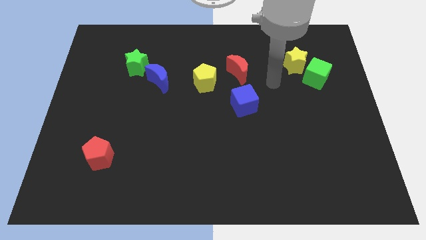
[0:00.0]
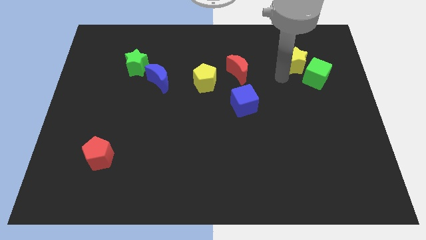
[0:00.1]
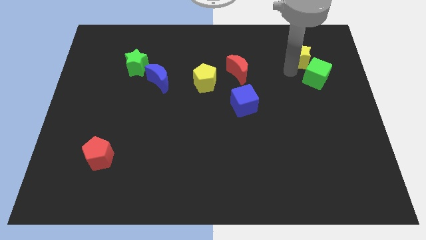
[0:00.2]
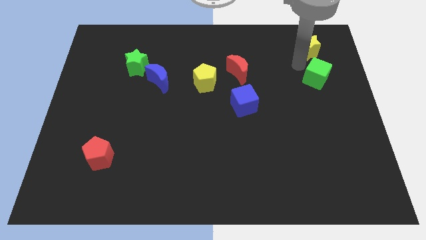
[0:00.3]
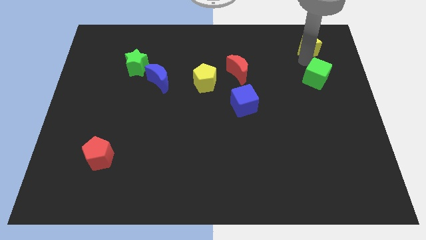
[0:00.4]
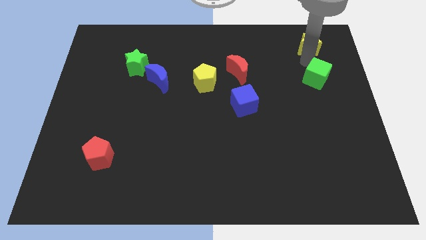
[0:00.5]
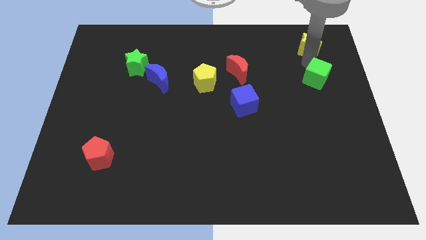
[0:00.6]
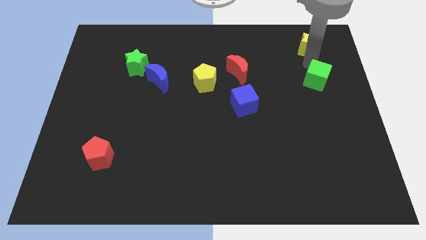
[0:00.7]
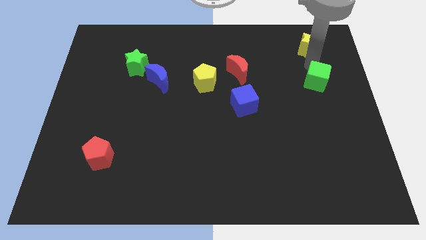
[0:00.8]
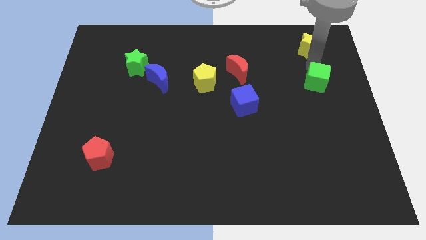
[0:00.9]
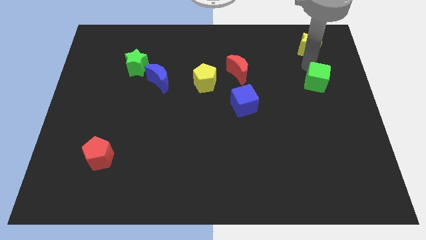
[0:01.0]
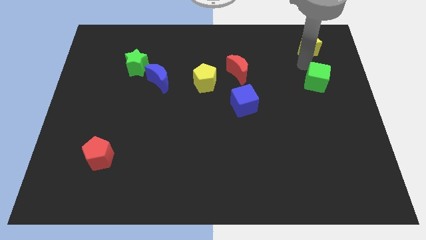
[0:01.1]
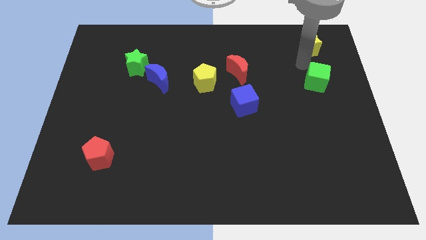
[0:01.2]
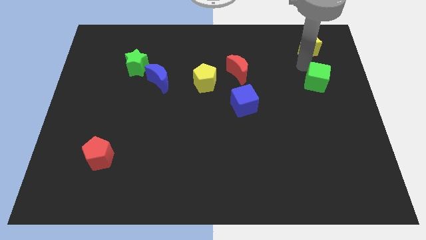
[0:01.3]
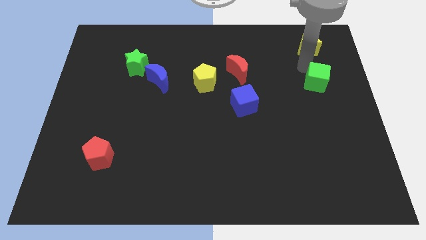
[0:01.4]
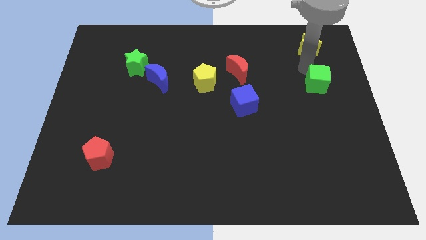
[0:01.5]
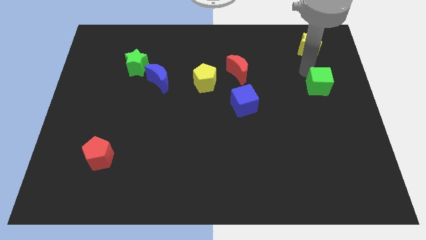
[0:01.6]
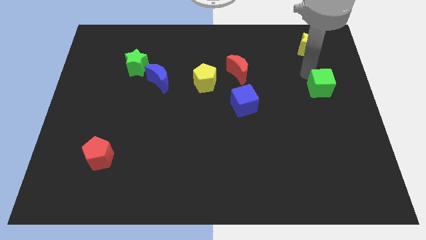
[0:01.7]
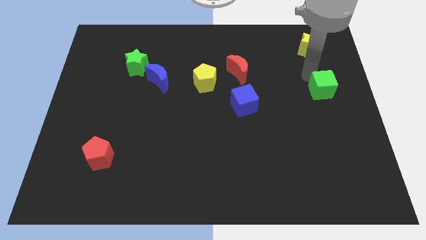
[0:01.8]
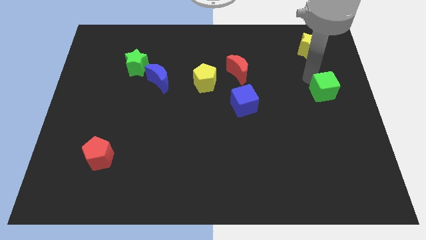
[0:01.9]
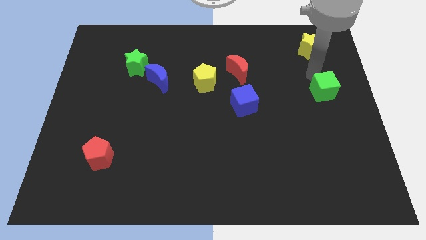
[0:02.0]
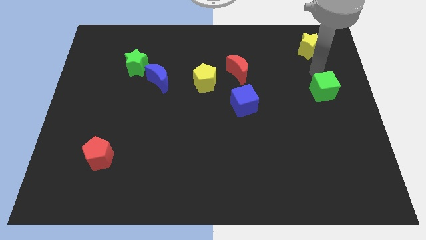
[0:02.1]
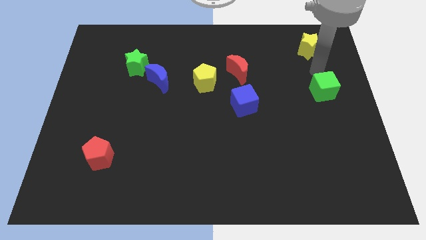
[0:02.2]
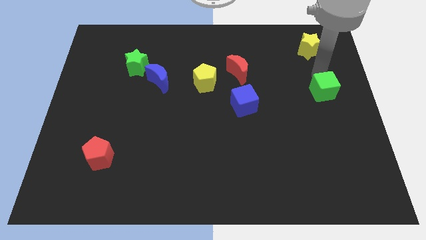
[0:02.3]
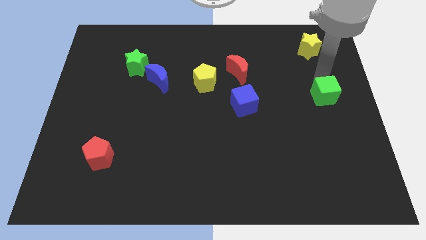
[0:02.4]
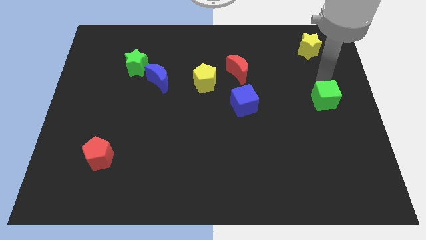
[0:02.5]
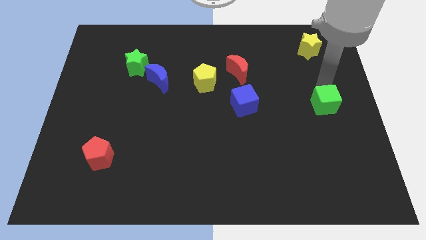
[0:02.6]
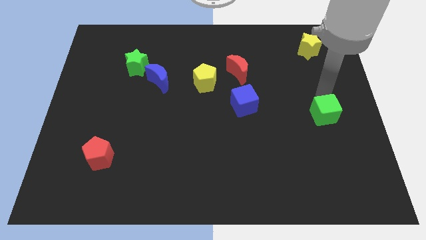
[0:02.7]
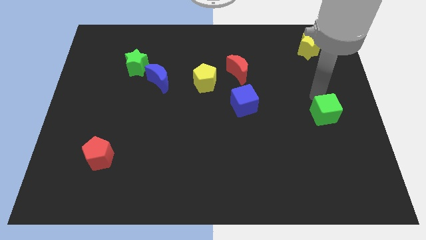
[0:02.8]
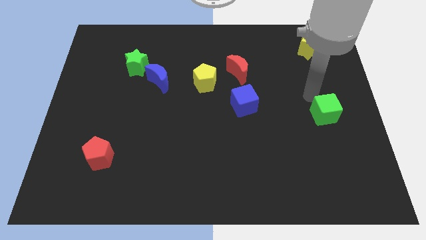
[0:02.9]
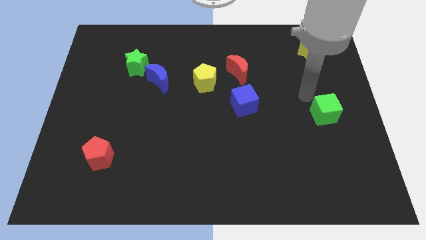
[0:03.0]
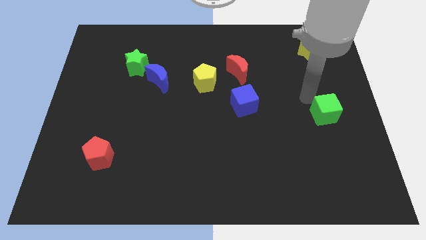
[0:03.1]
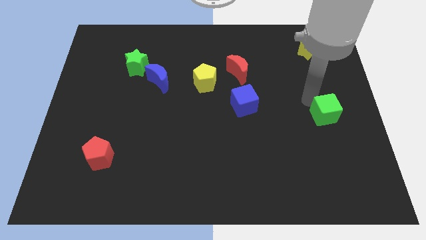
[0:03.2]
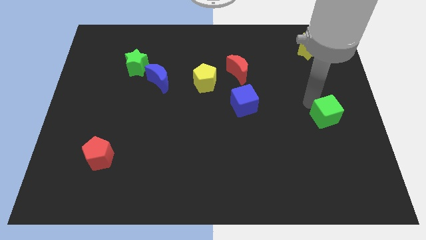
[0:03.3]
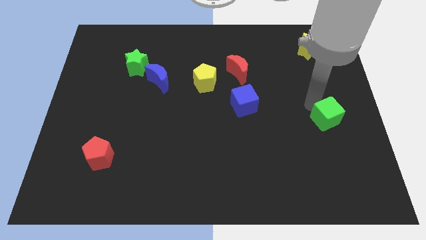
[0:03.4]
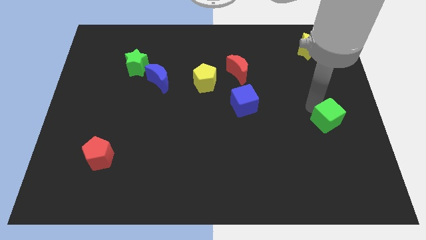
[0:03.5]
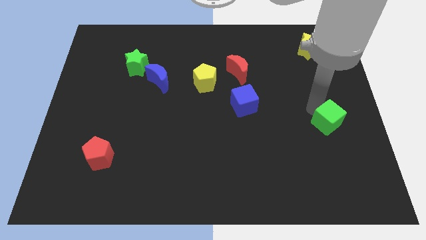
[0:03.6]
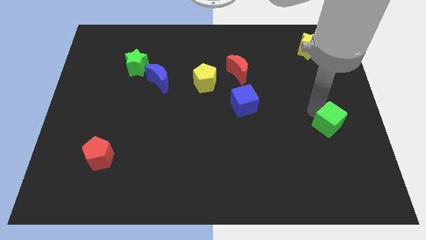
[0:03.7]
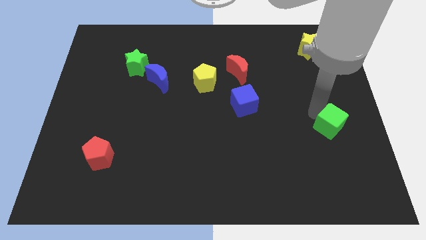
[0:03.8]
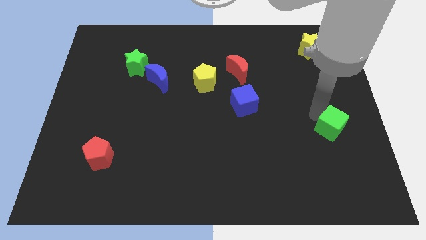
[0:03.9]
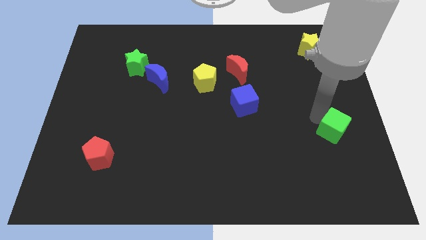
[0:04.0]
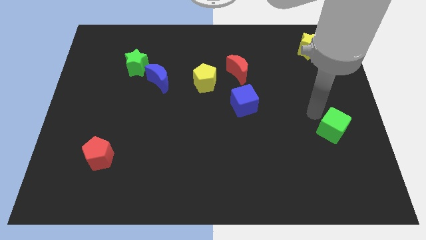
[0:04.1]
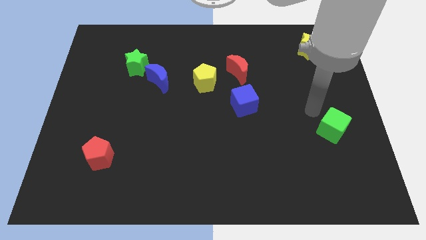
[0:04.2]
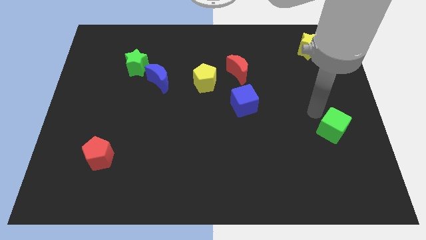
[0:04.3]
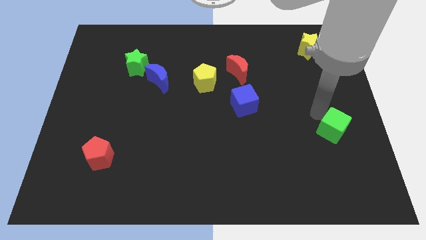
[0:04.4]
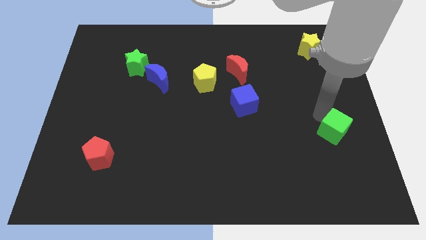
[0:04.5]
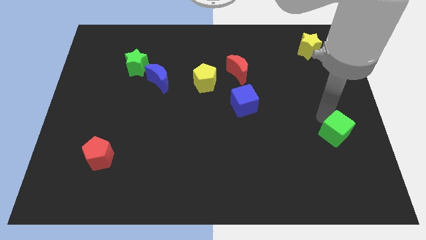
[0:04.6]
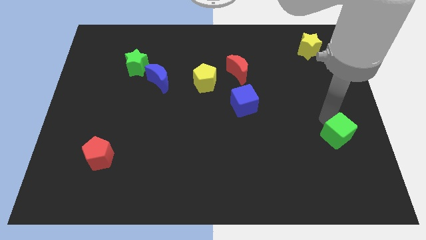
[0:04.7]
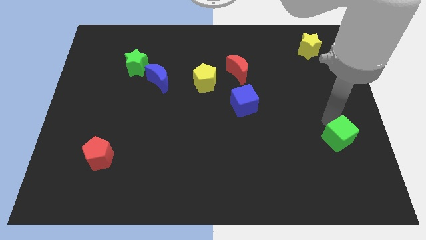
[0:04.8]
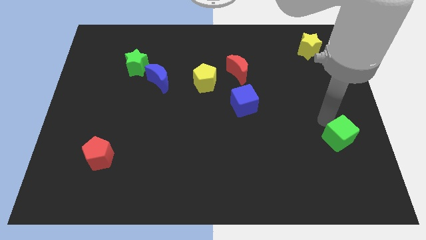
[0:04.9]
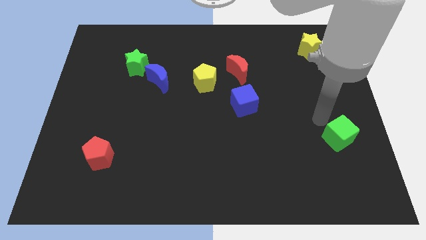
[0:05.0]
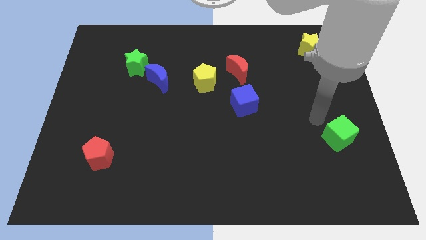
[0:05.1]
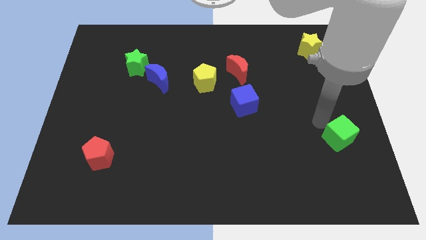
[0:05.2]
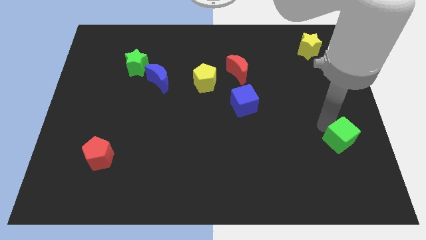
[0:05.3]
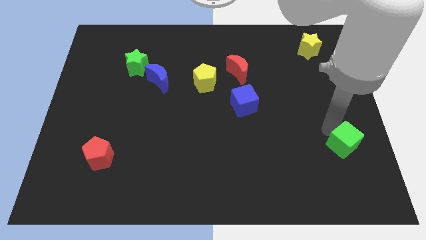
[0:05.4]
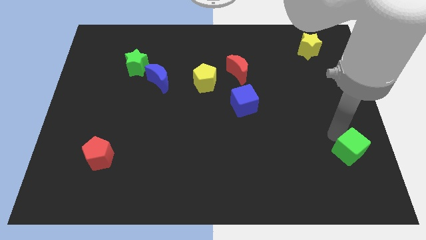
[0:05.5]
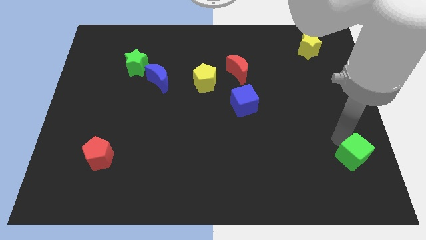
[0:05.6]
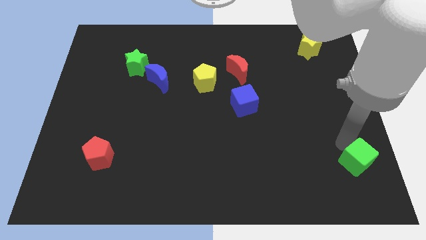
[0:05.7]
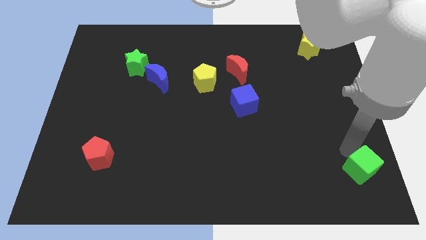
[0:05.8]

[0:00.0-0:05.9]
push the green cube to the bottom right corner

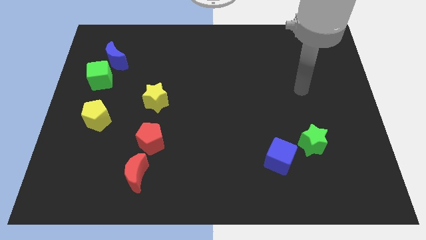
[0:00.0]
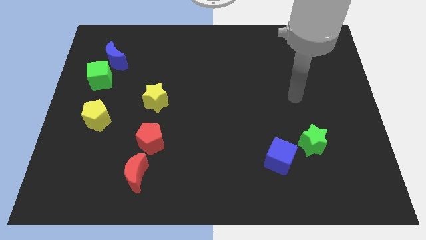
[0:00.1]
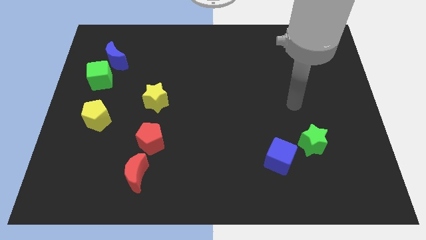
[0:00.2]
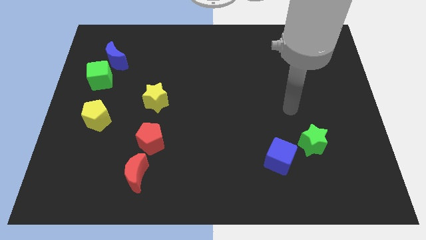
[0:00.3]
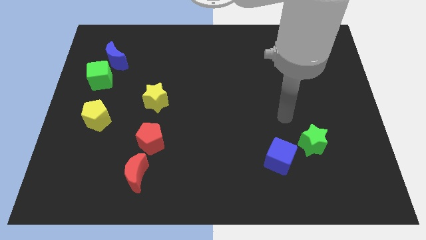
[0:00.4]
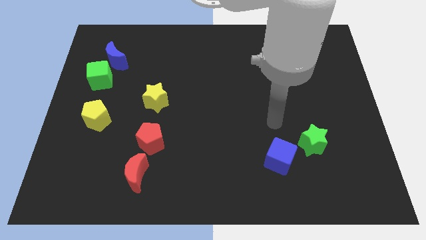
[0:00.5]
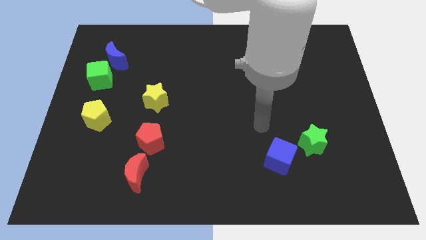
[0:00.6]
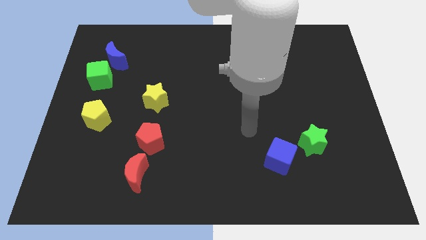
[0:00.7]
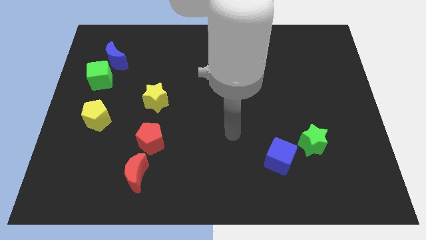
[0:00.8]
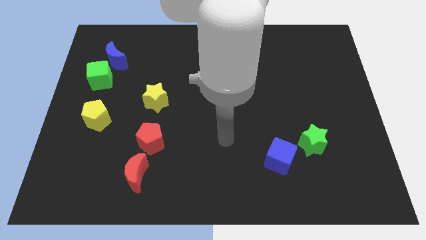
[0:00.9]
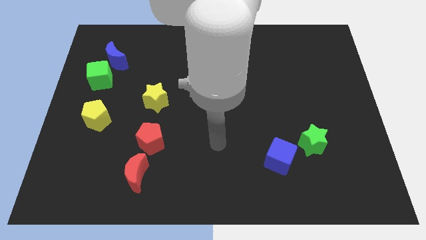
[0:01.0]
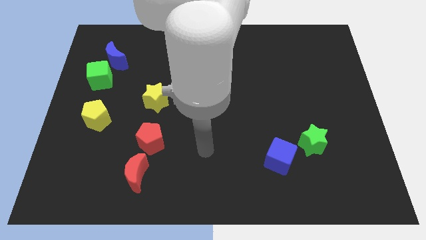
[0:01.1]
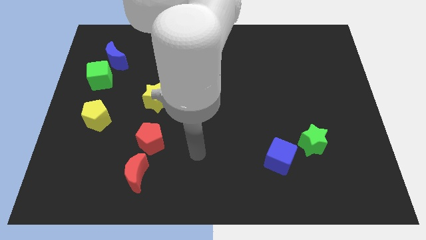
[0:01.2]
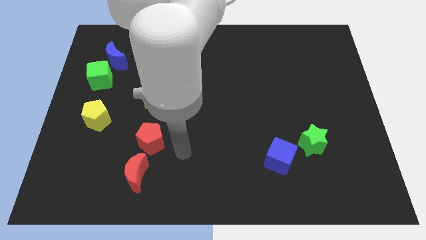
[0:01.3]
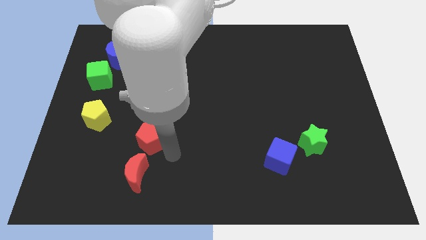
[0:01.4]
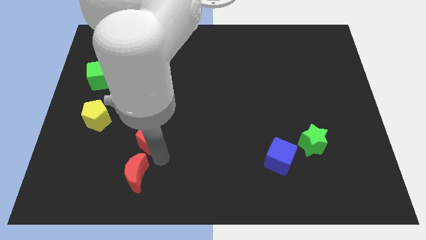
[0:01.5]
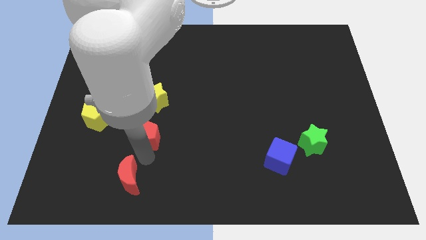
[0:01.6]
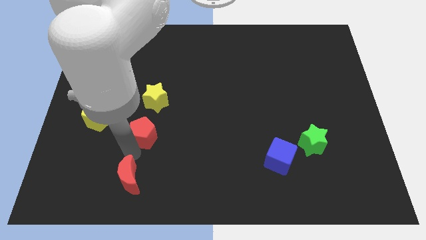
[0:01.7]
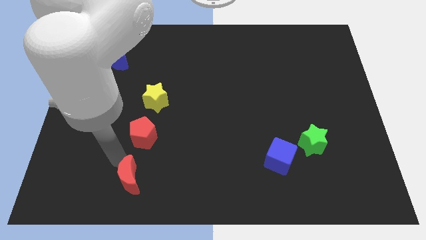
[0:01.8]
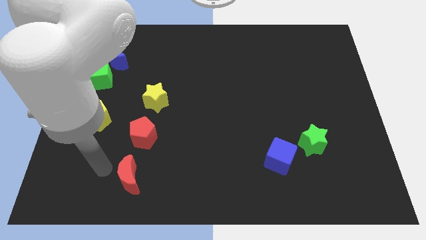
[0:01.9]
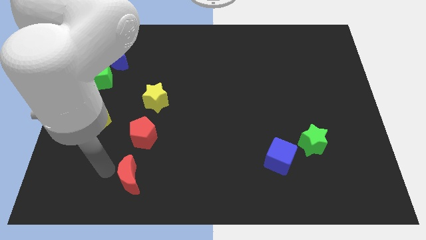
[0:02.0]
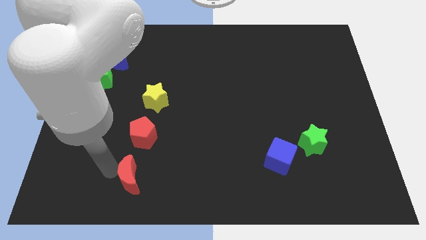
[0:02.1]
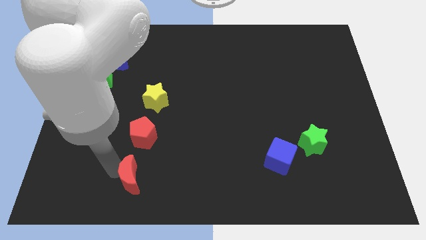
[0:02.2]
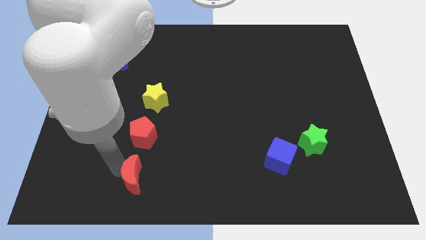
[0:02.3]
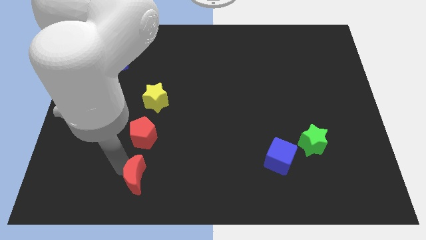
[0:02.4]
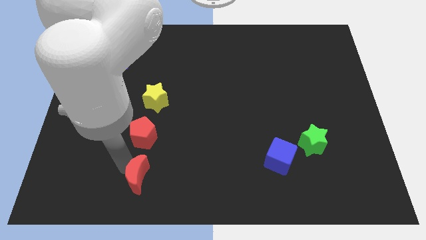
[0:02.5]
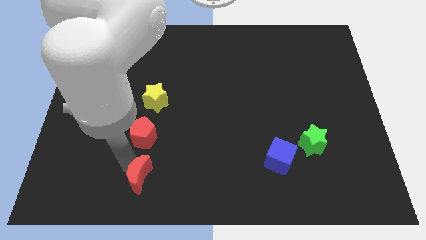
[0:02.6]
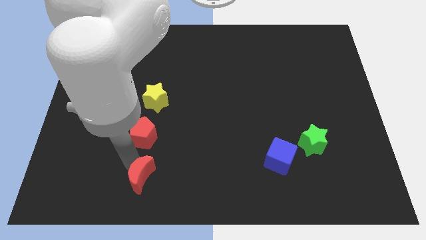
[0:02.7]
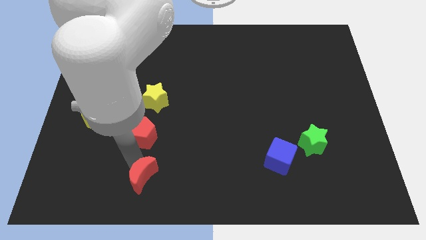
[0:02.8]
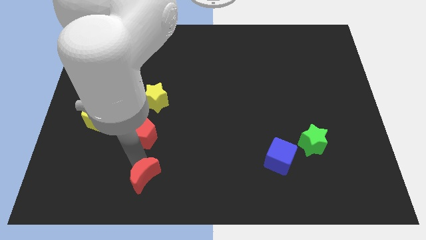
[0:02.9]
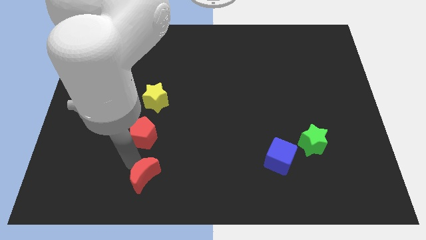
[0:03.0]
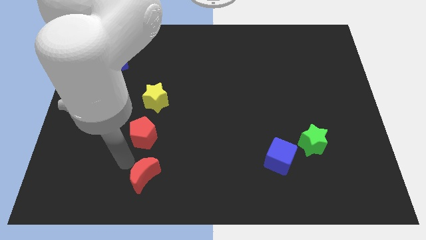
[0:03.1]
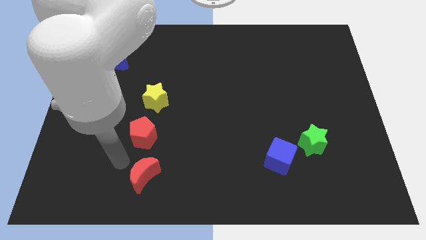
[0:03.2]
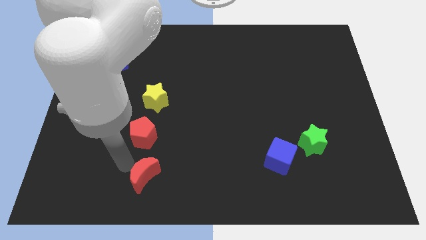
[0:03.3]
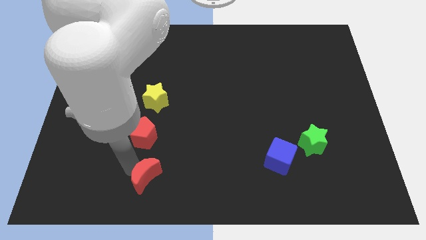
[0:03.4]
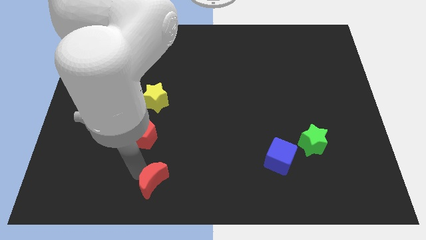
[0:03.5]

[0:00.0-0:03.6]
put the red moon to the bottom
